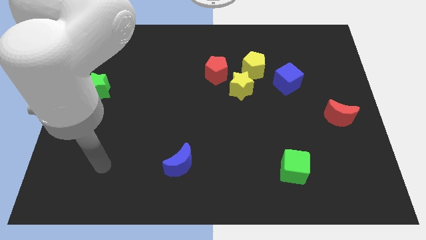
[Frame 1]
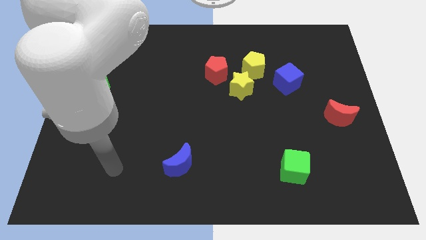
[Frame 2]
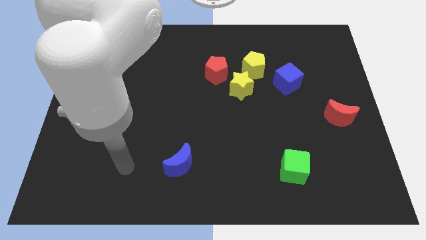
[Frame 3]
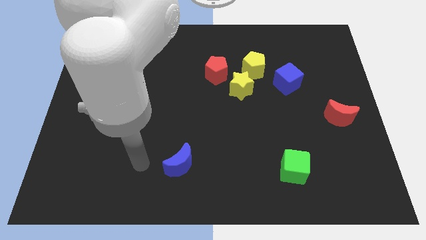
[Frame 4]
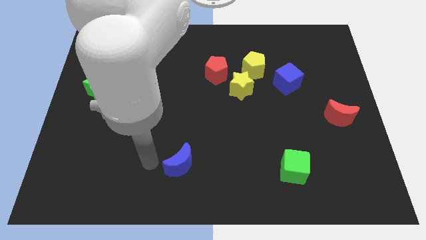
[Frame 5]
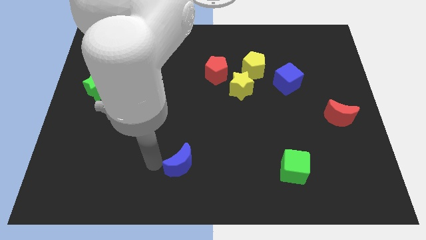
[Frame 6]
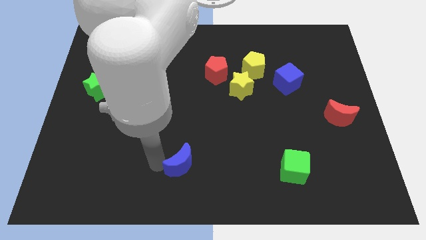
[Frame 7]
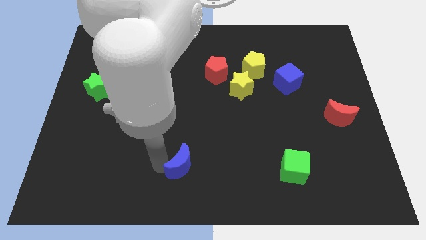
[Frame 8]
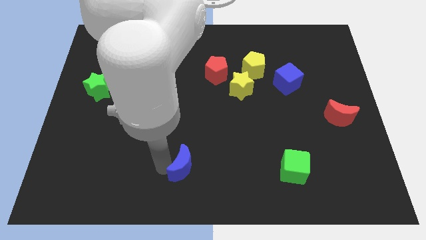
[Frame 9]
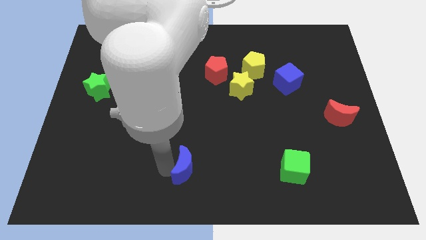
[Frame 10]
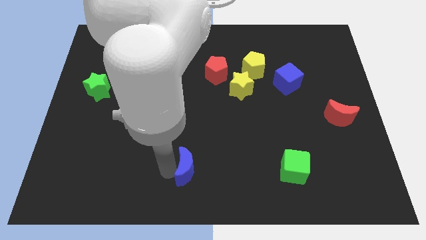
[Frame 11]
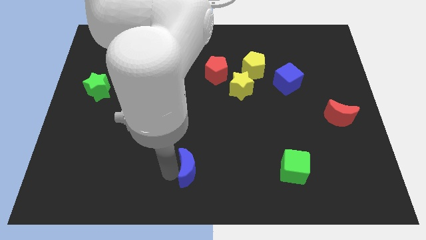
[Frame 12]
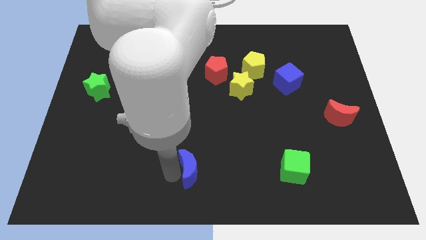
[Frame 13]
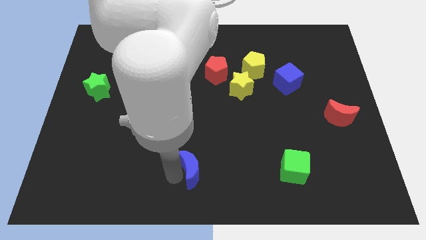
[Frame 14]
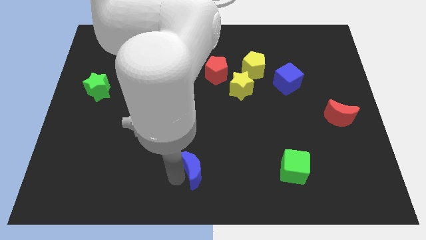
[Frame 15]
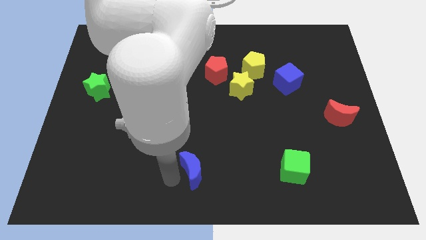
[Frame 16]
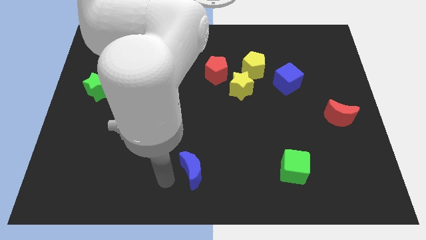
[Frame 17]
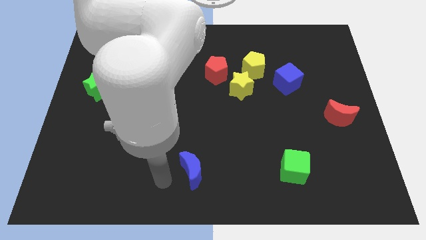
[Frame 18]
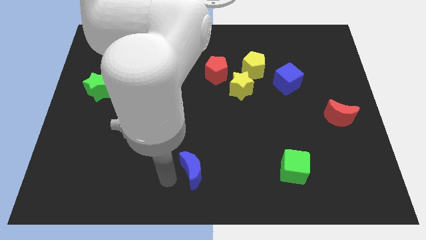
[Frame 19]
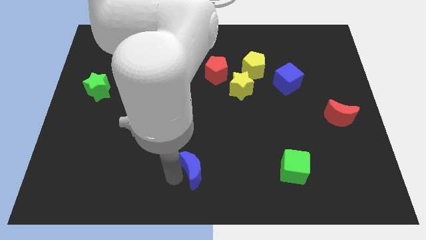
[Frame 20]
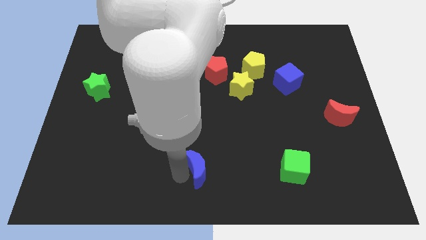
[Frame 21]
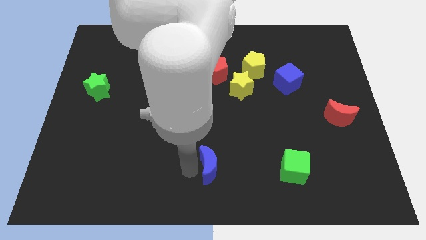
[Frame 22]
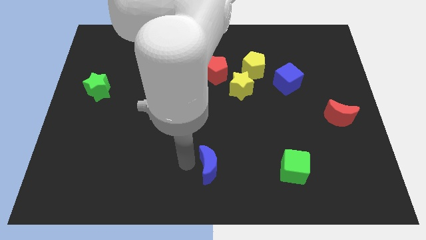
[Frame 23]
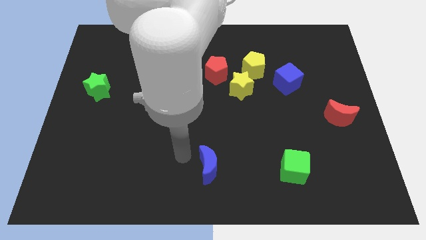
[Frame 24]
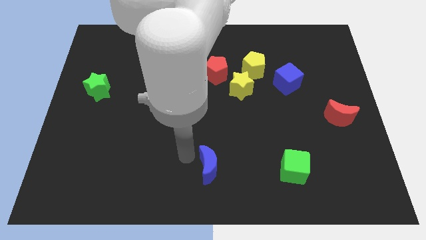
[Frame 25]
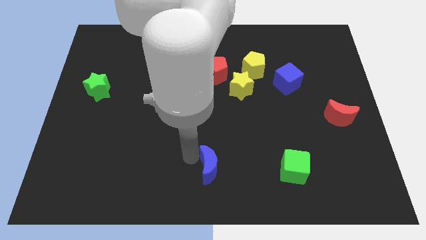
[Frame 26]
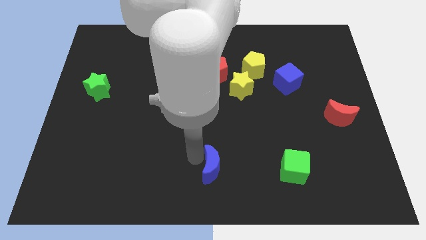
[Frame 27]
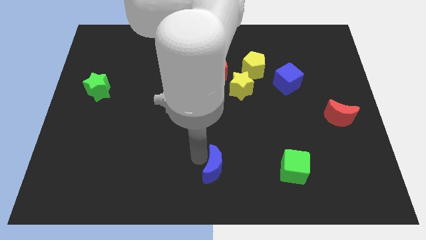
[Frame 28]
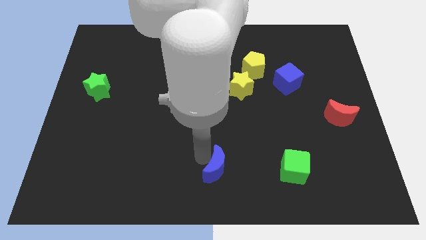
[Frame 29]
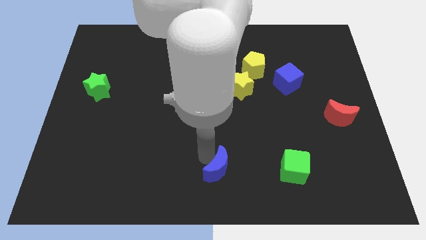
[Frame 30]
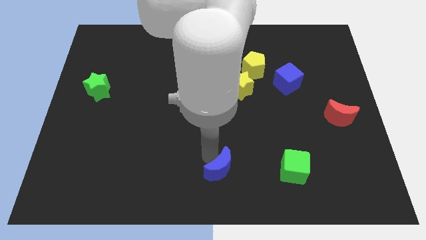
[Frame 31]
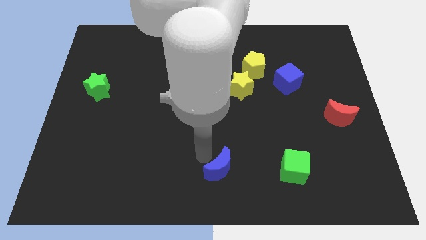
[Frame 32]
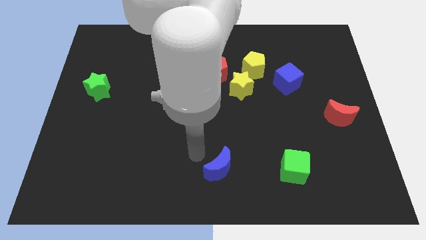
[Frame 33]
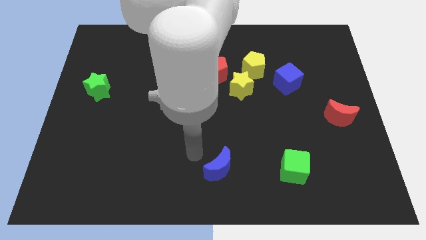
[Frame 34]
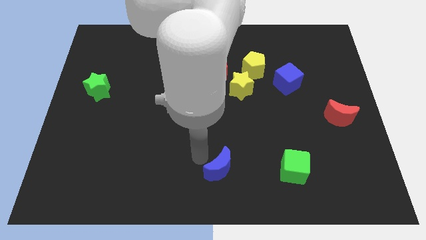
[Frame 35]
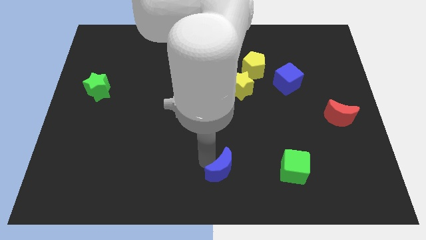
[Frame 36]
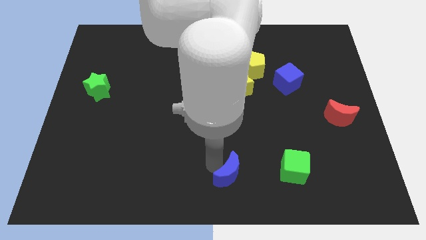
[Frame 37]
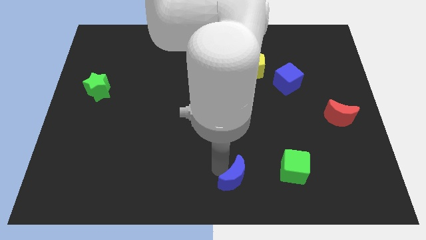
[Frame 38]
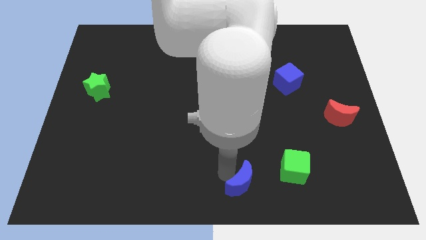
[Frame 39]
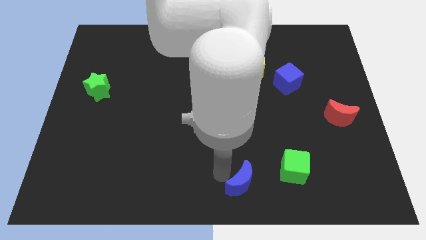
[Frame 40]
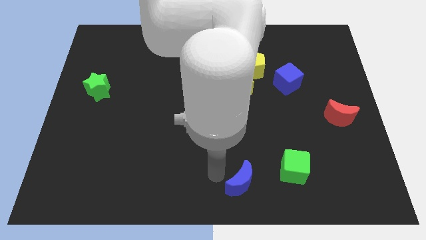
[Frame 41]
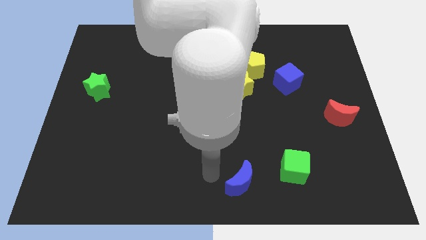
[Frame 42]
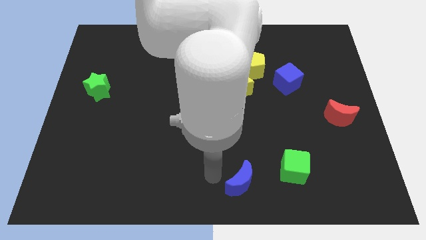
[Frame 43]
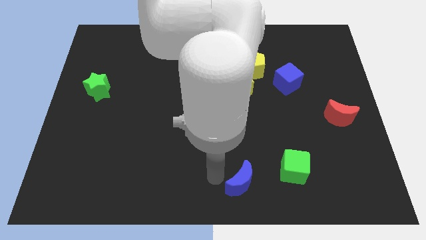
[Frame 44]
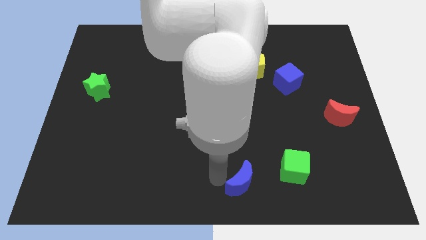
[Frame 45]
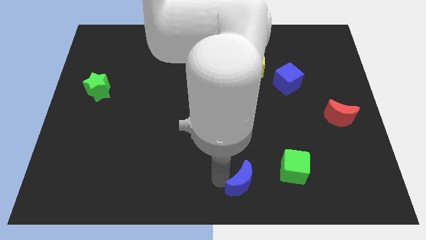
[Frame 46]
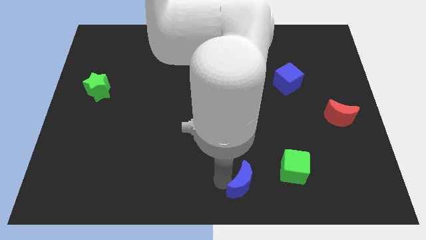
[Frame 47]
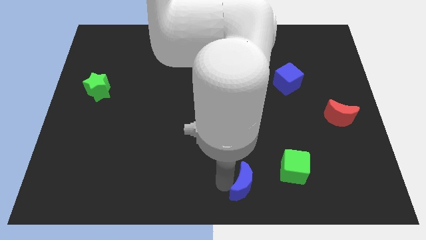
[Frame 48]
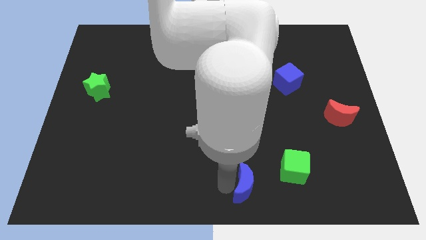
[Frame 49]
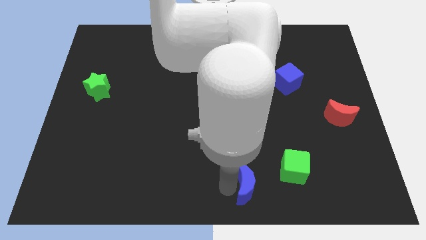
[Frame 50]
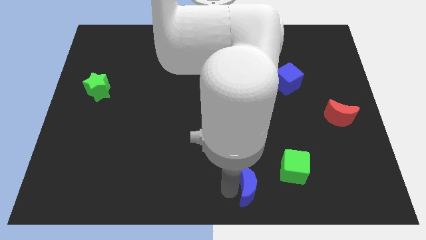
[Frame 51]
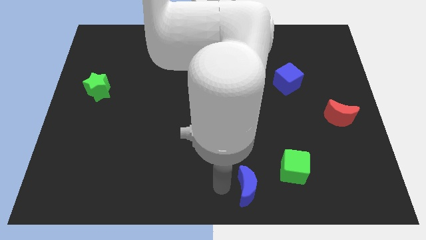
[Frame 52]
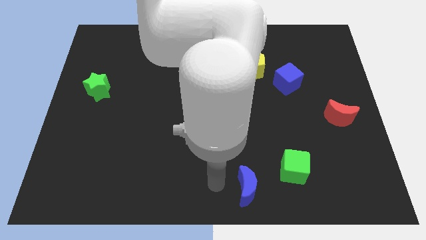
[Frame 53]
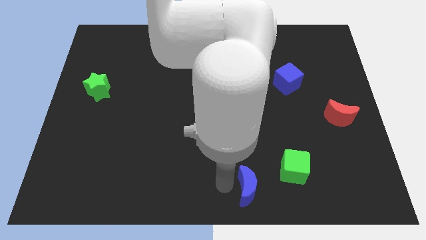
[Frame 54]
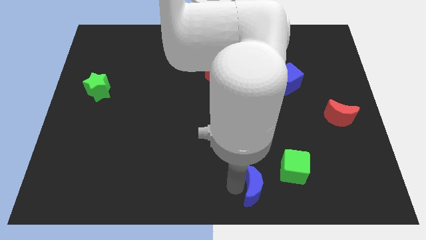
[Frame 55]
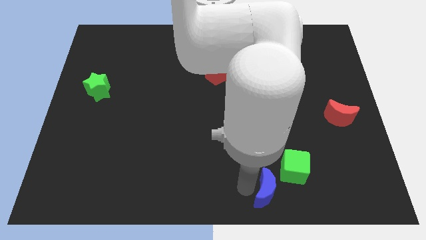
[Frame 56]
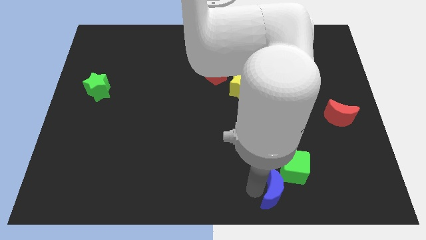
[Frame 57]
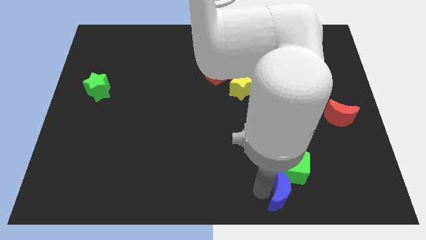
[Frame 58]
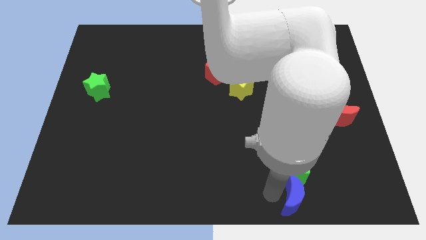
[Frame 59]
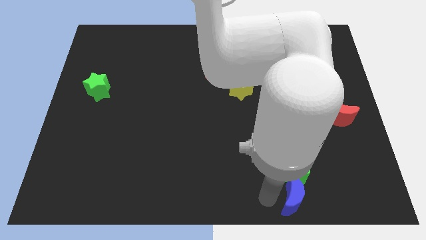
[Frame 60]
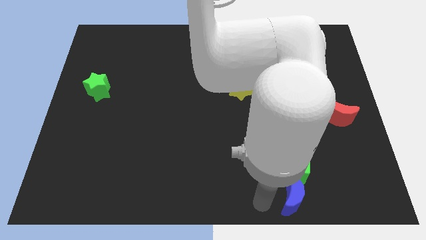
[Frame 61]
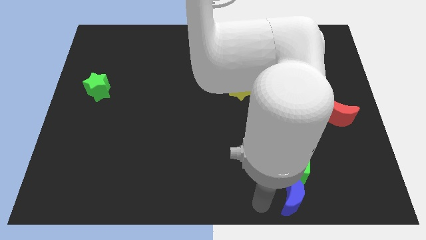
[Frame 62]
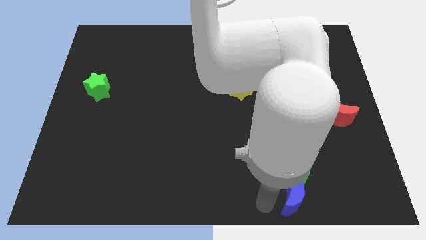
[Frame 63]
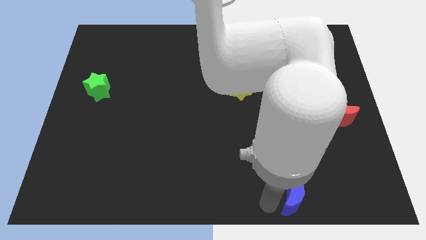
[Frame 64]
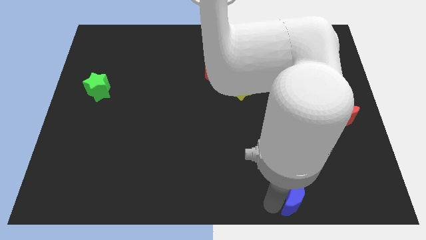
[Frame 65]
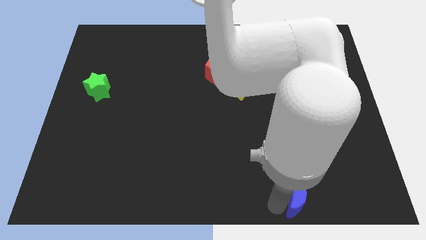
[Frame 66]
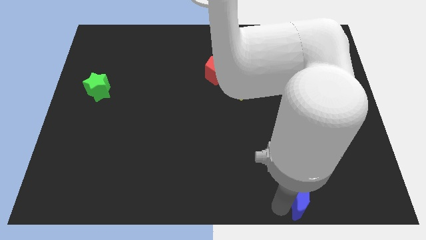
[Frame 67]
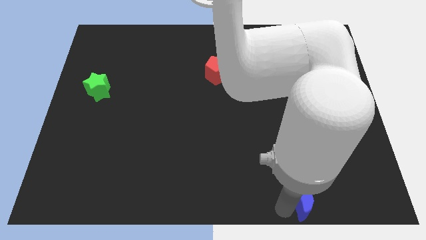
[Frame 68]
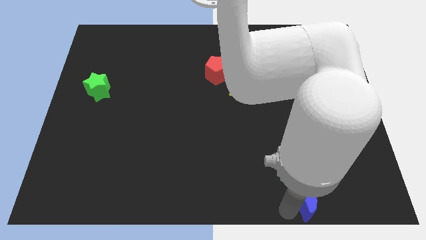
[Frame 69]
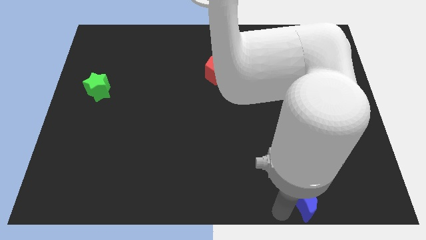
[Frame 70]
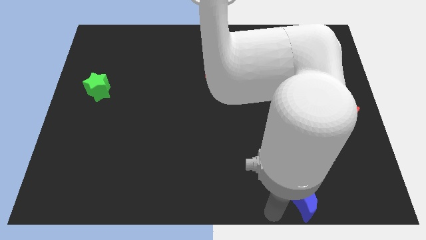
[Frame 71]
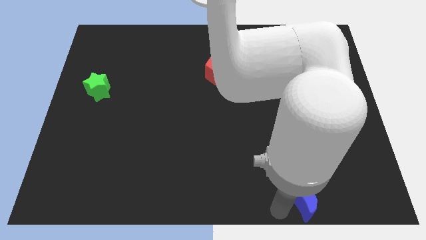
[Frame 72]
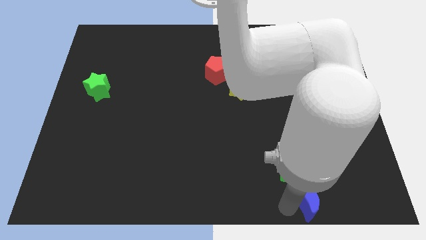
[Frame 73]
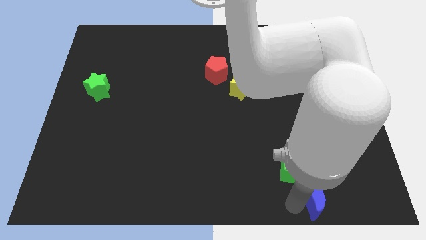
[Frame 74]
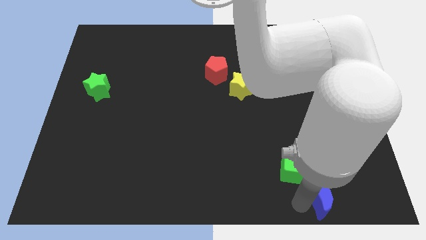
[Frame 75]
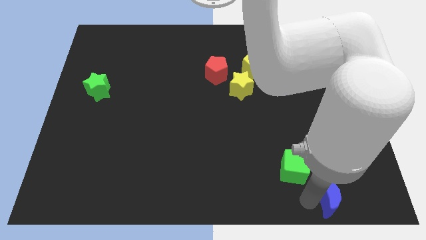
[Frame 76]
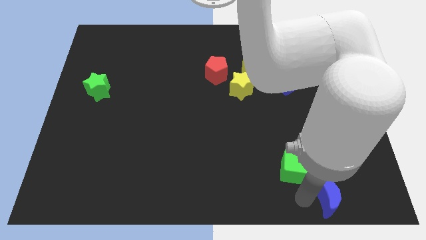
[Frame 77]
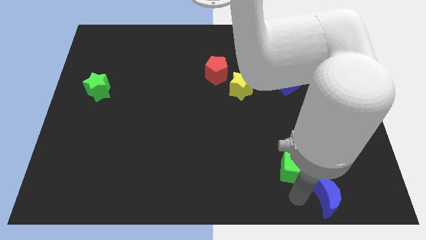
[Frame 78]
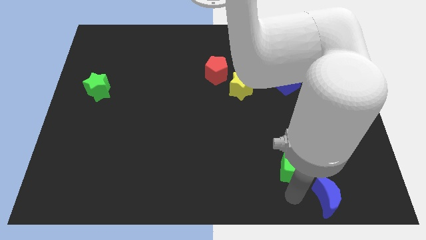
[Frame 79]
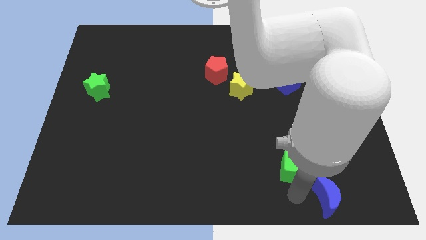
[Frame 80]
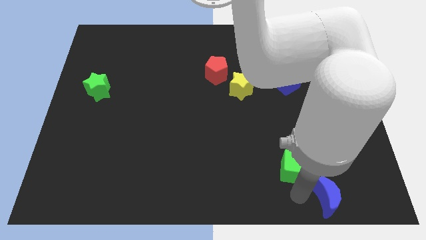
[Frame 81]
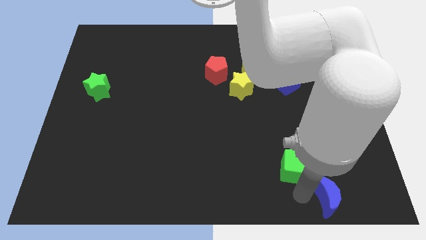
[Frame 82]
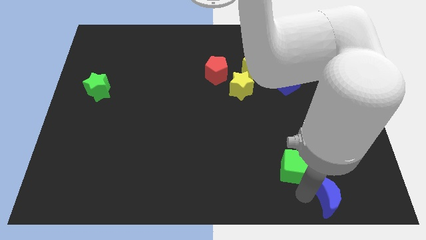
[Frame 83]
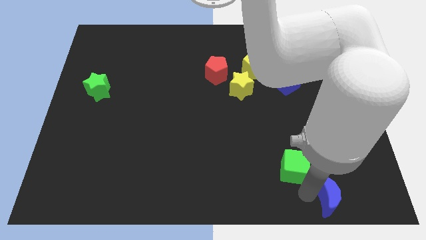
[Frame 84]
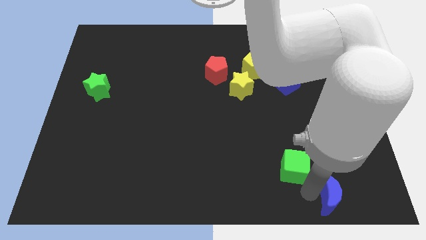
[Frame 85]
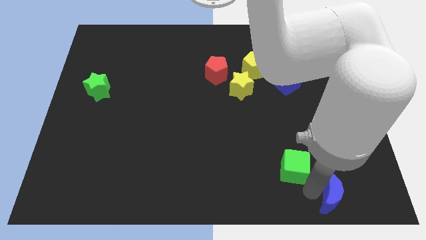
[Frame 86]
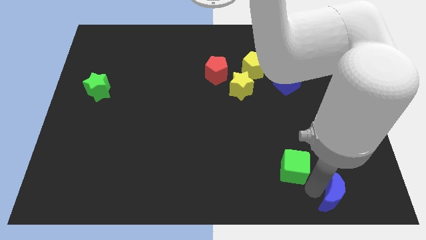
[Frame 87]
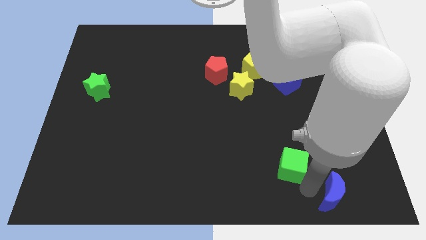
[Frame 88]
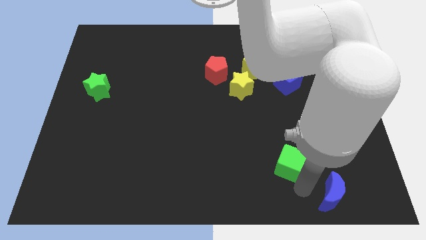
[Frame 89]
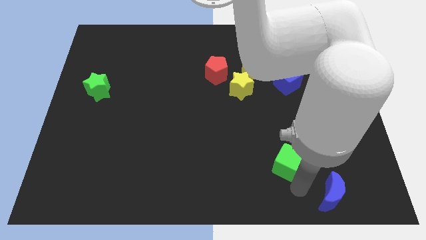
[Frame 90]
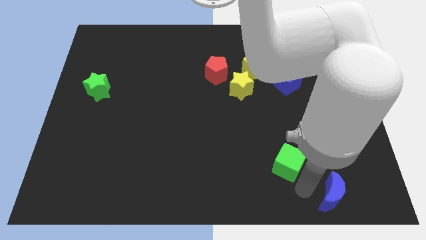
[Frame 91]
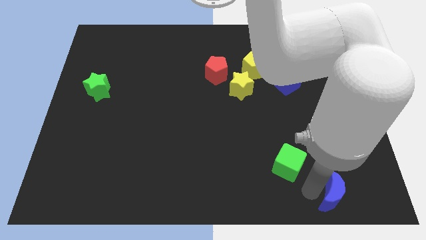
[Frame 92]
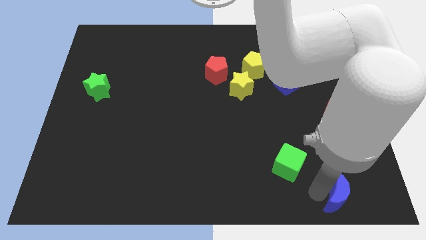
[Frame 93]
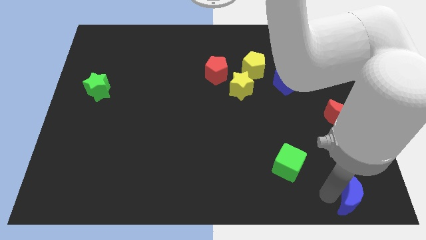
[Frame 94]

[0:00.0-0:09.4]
put the blue moon to the bottom right of the board
